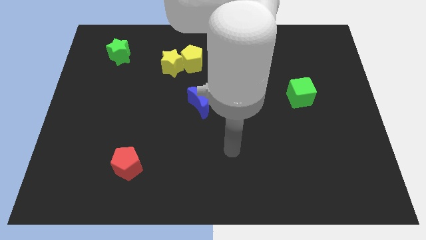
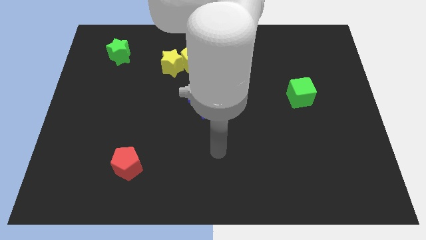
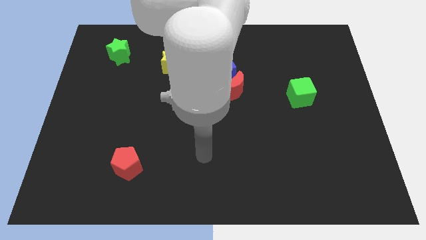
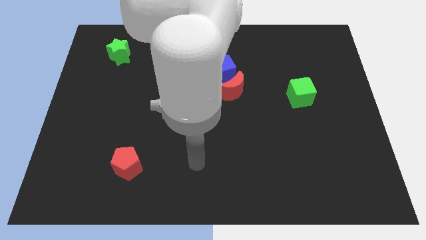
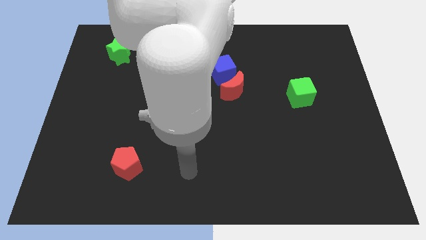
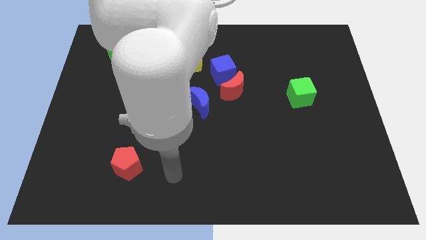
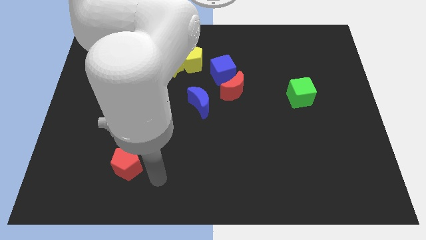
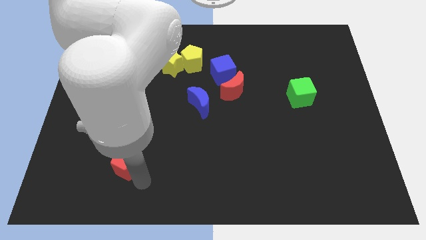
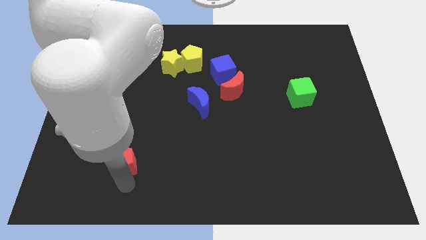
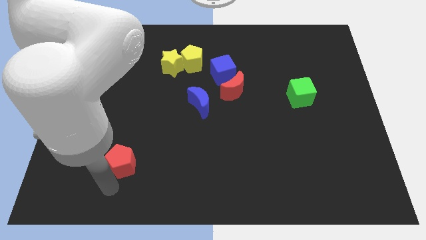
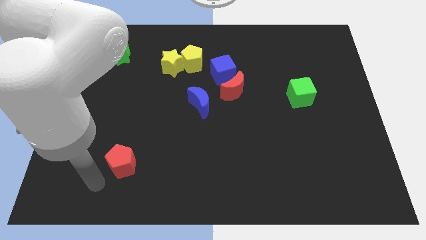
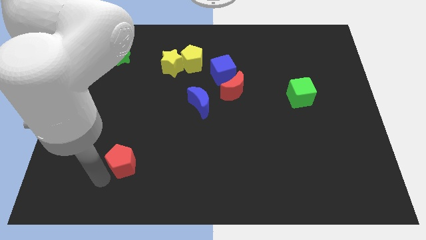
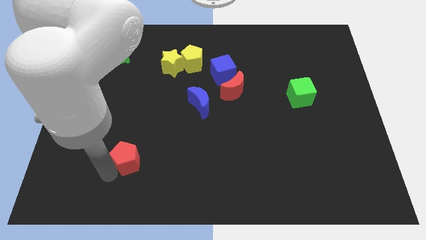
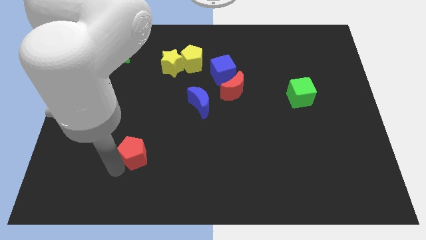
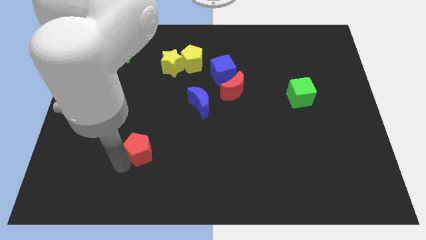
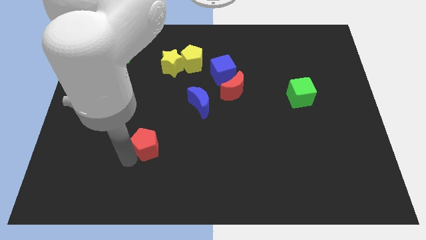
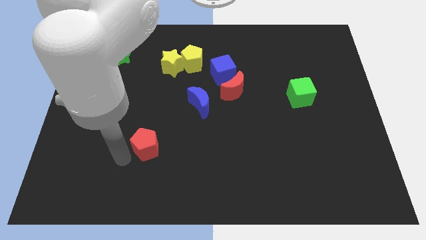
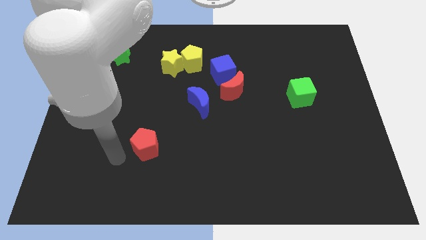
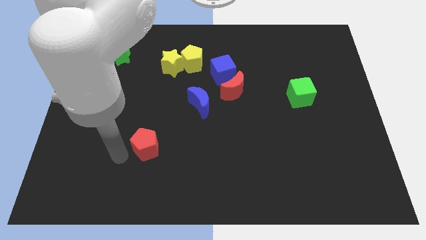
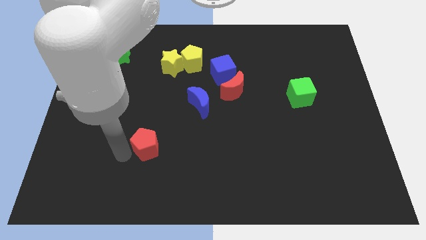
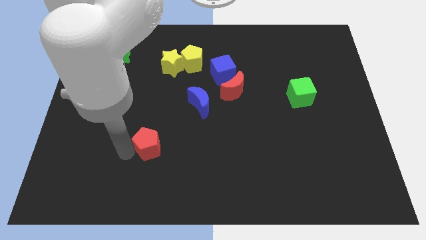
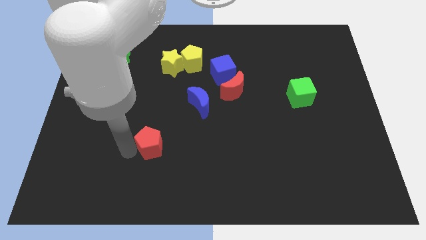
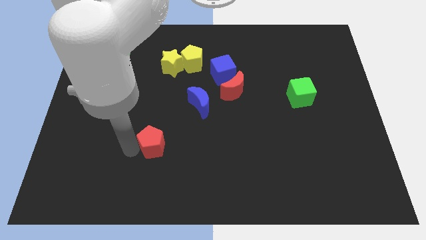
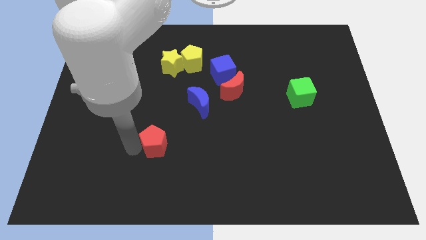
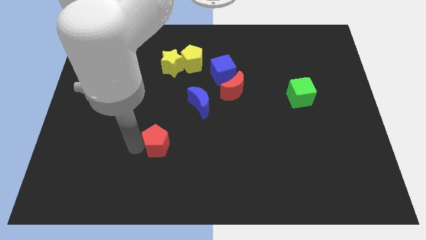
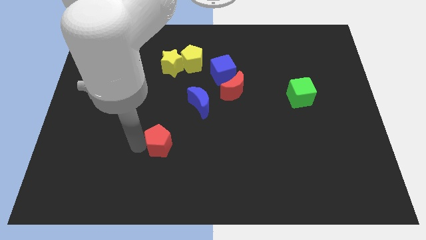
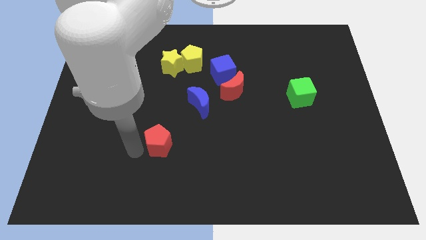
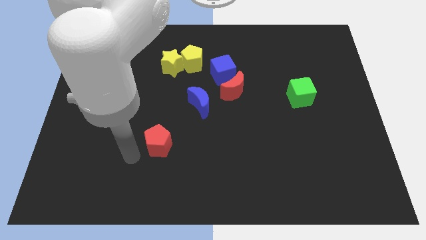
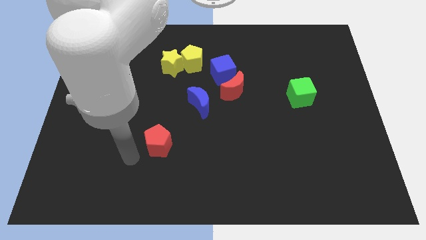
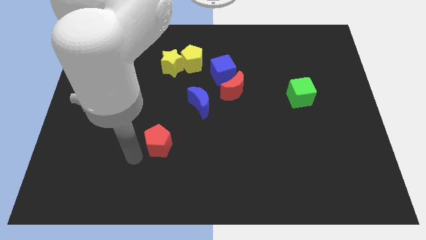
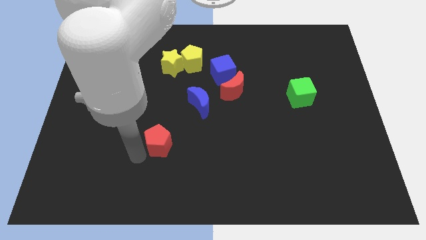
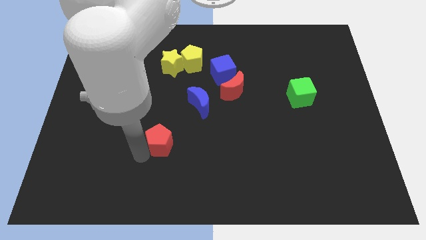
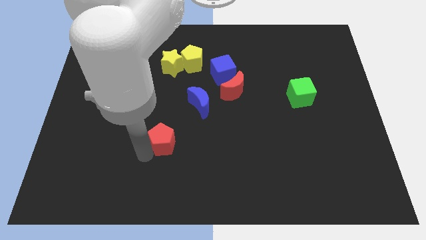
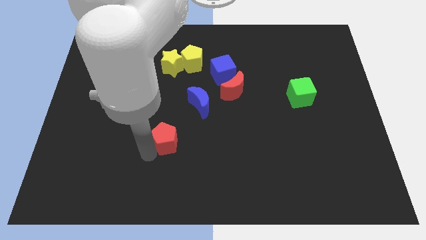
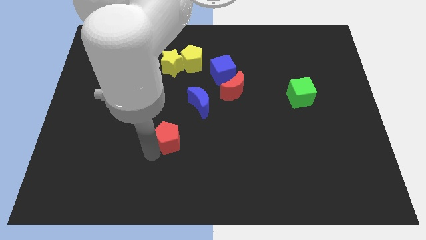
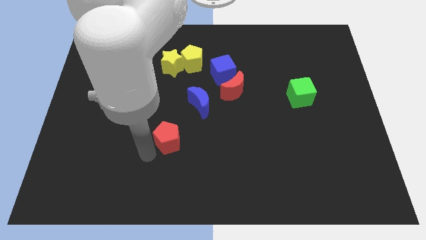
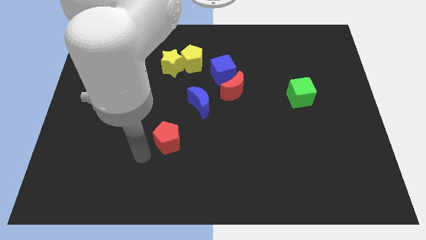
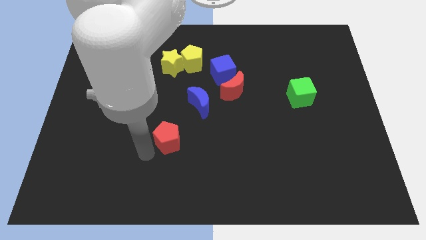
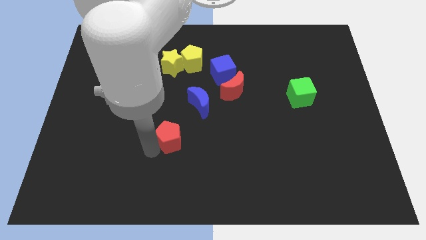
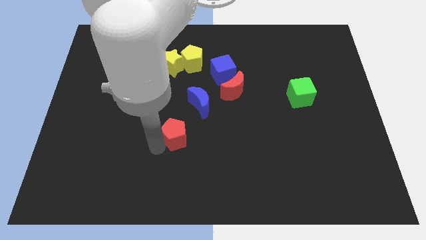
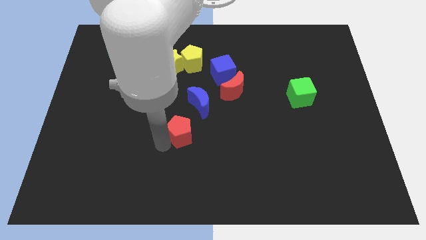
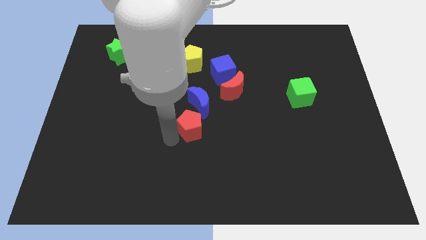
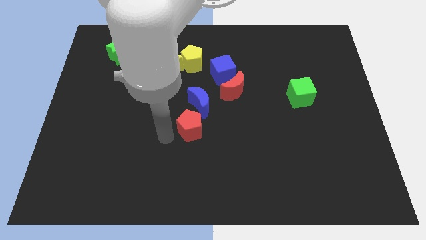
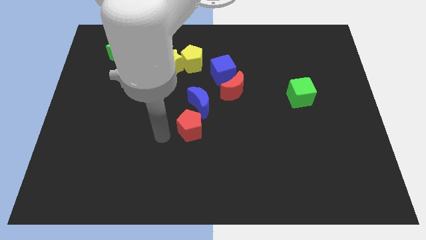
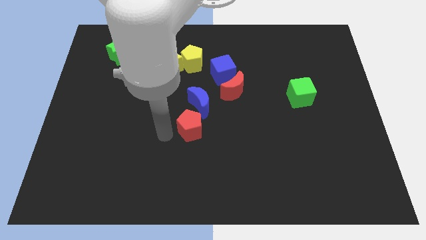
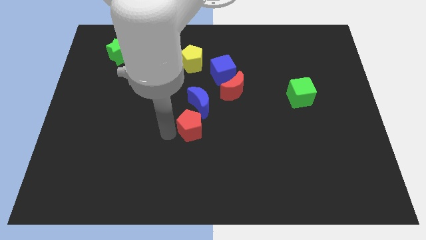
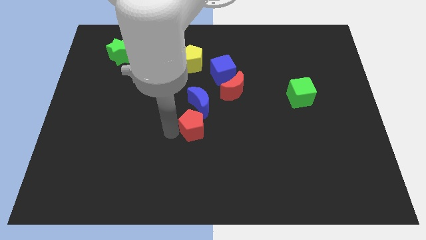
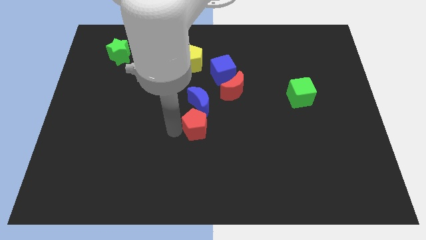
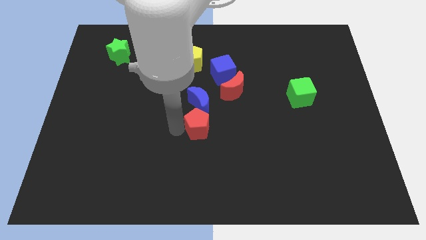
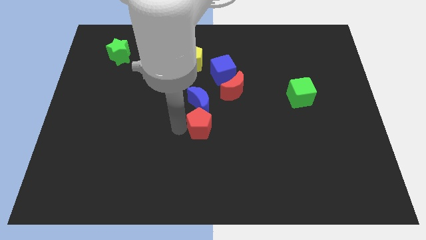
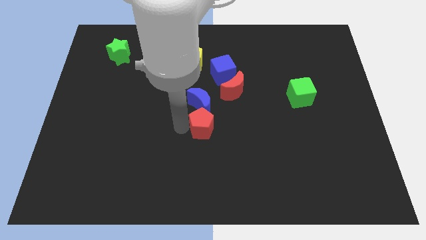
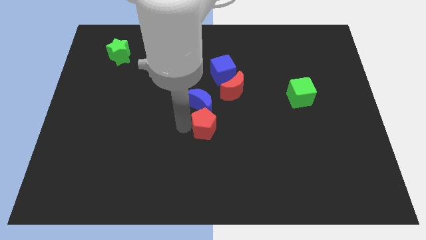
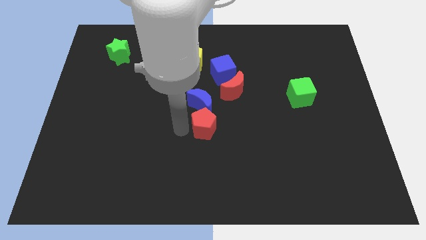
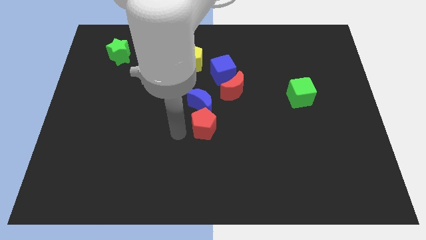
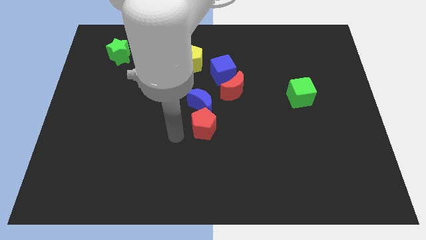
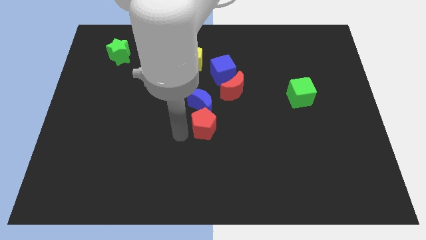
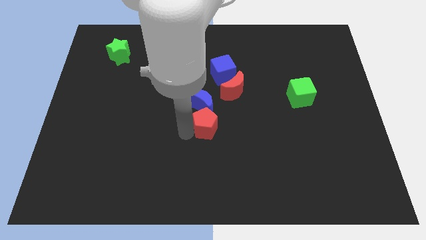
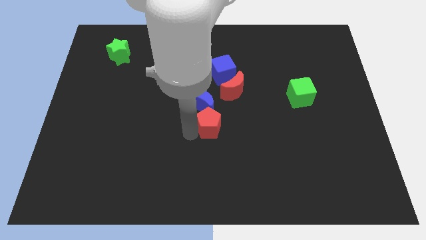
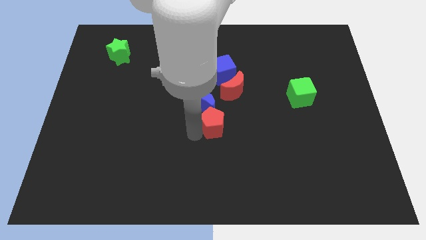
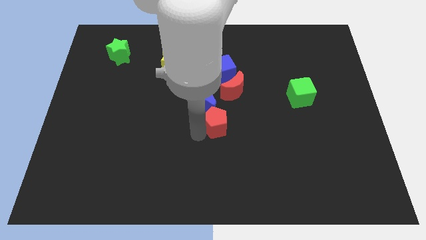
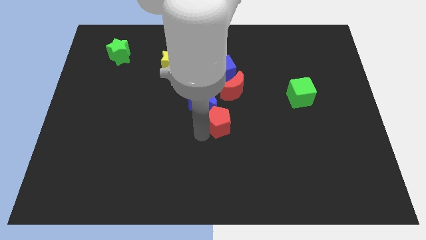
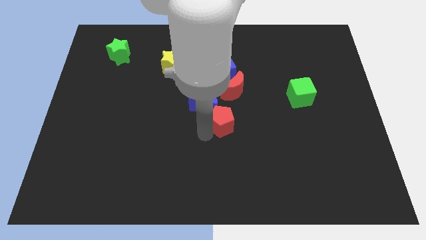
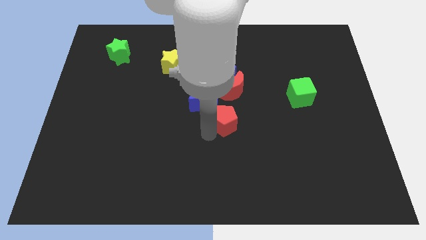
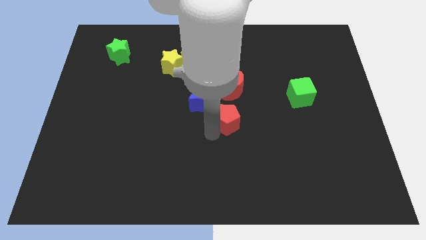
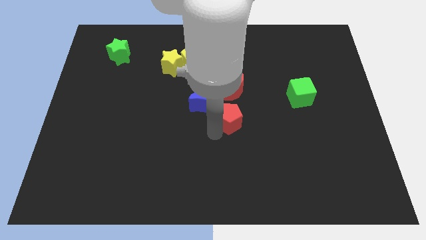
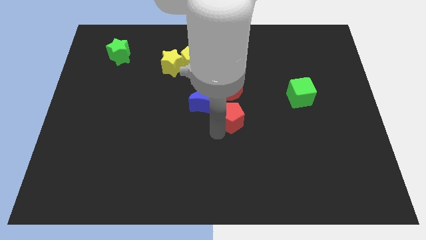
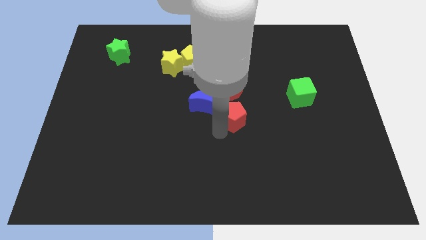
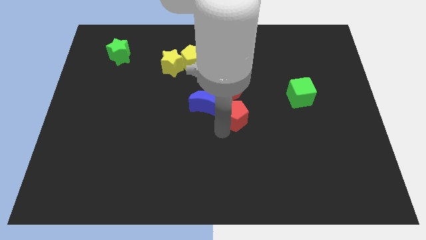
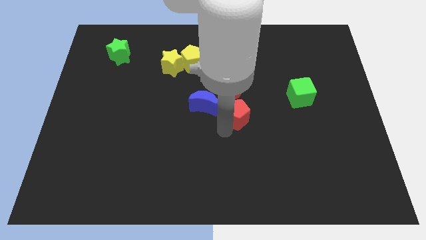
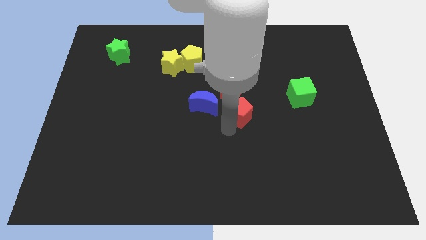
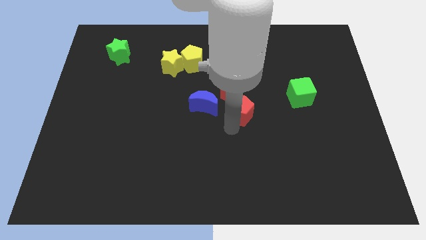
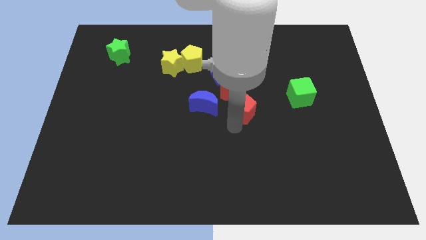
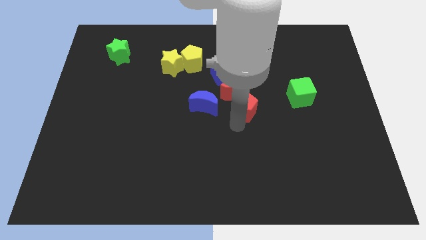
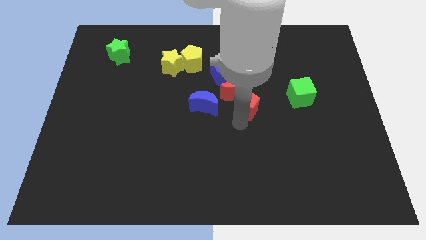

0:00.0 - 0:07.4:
push the red pentagon towards the red moon
